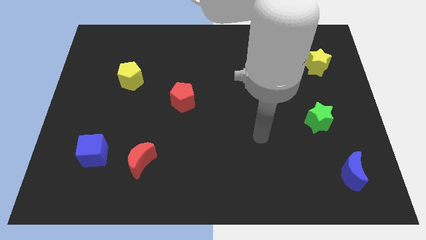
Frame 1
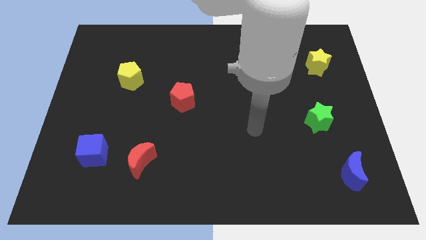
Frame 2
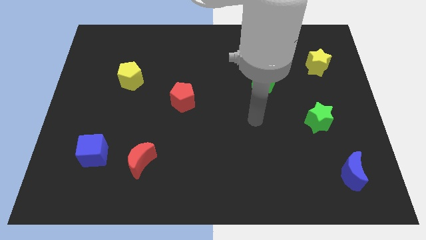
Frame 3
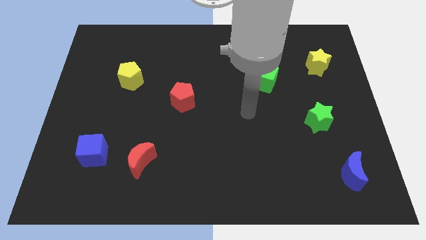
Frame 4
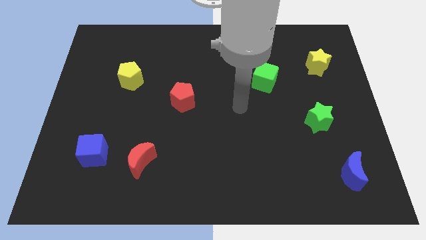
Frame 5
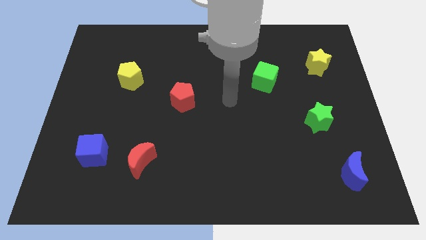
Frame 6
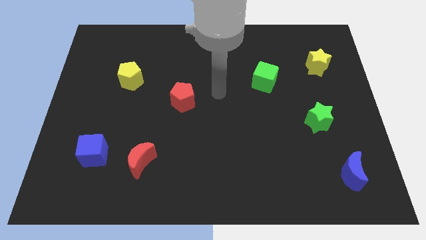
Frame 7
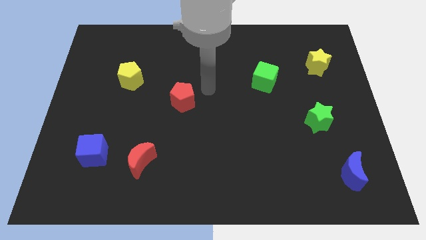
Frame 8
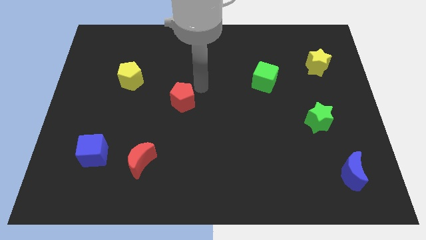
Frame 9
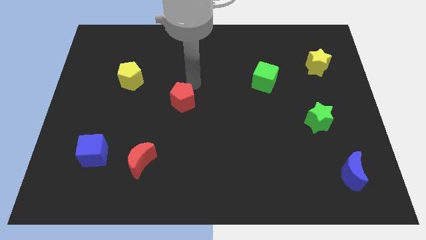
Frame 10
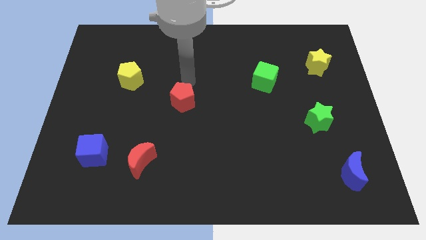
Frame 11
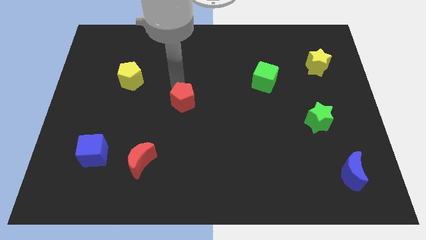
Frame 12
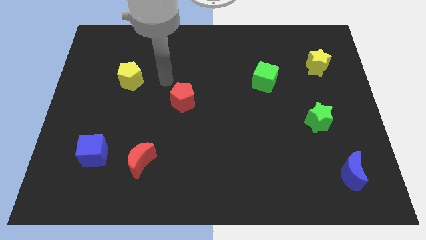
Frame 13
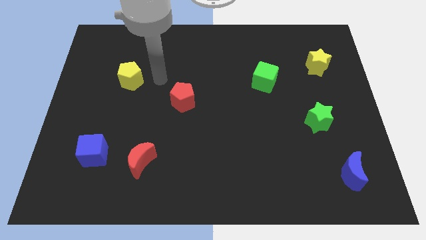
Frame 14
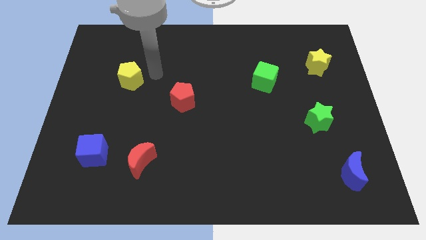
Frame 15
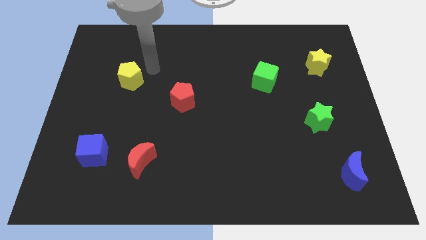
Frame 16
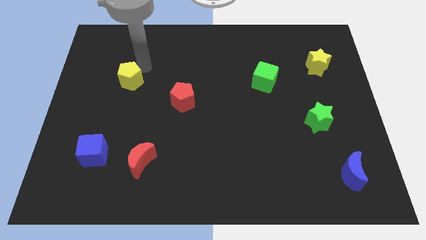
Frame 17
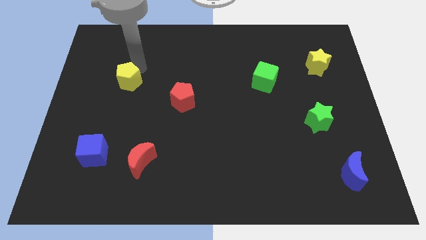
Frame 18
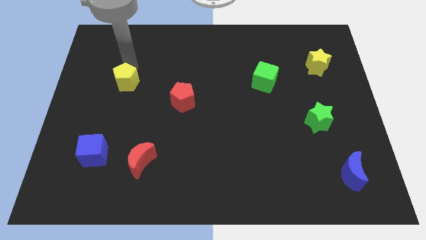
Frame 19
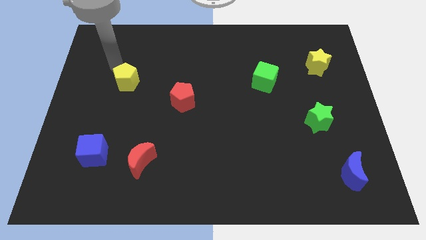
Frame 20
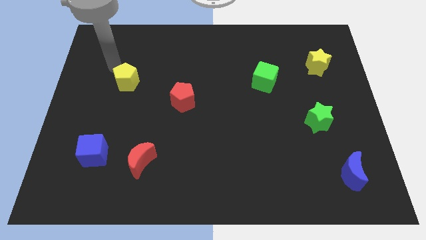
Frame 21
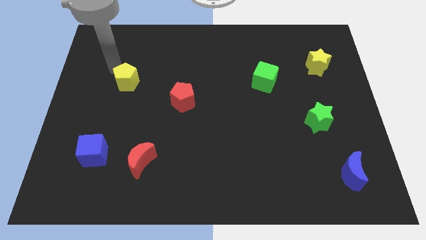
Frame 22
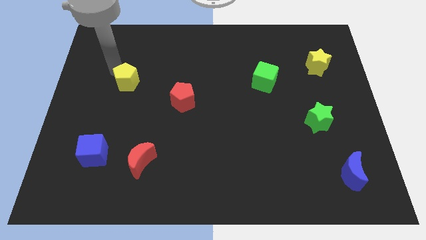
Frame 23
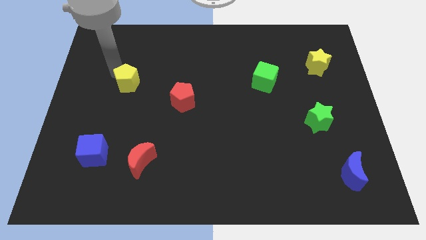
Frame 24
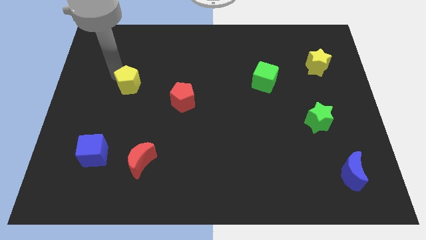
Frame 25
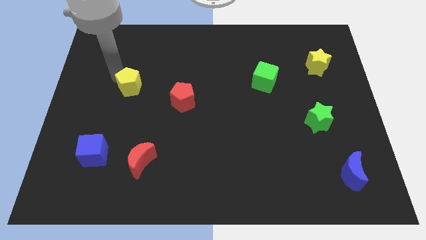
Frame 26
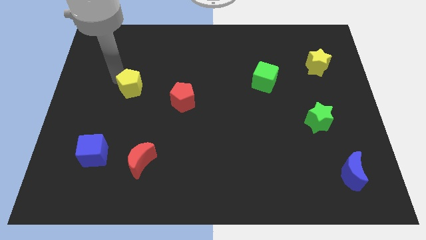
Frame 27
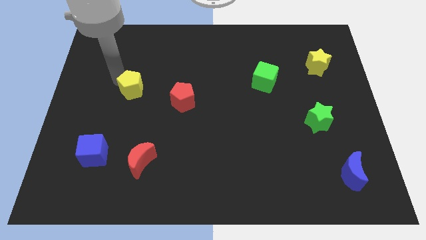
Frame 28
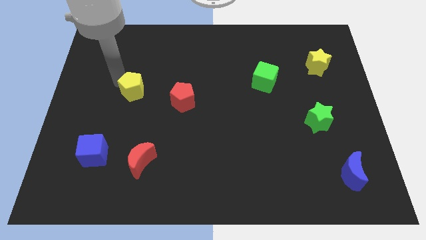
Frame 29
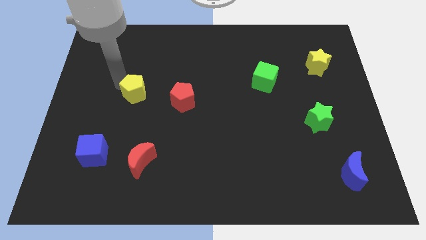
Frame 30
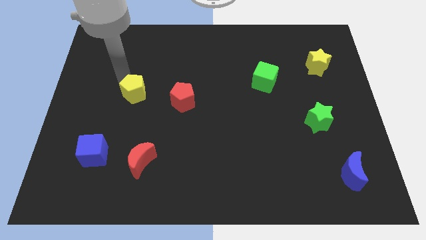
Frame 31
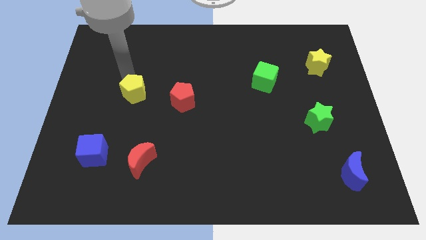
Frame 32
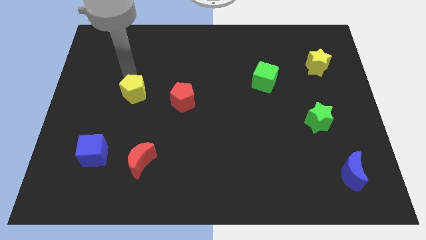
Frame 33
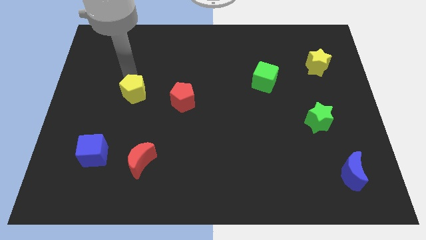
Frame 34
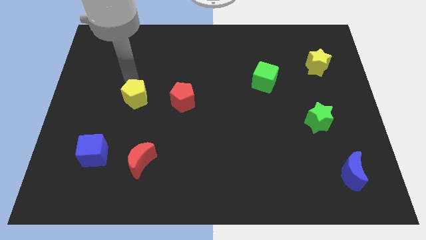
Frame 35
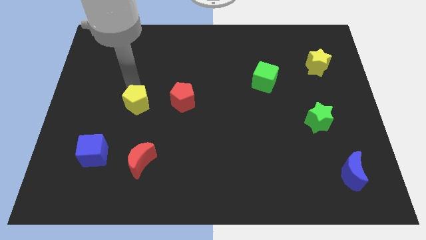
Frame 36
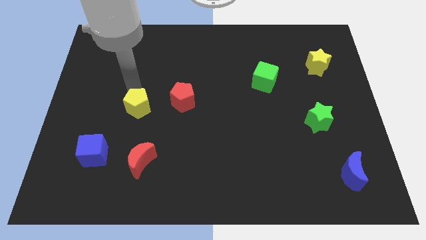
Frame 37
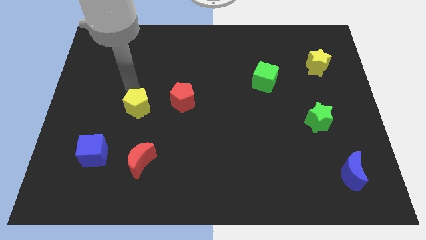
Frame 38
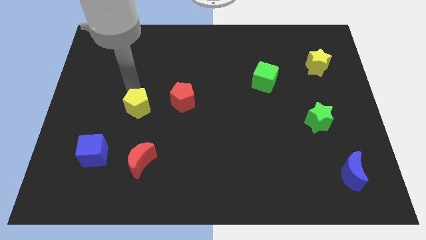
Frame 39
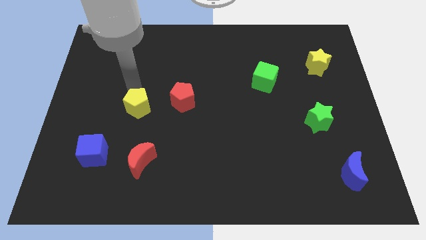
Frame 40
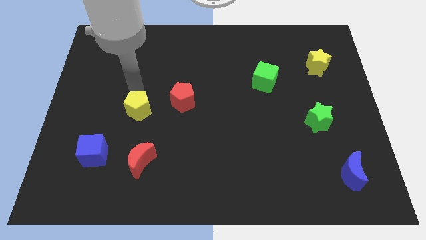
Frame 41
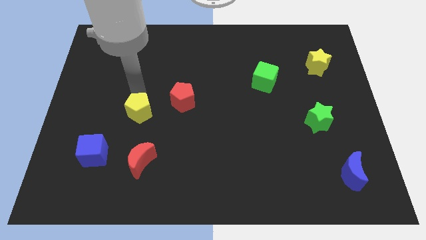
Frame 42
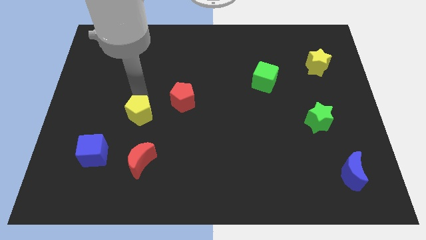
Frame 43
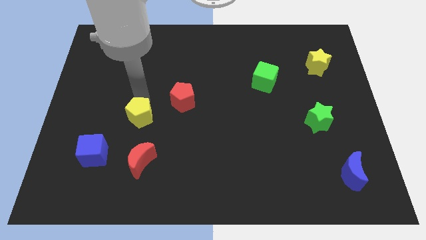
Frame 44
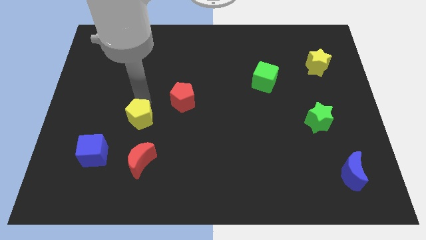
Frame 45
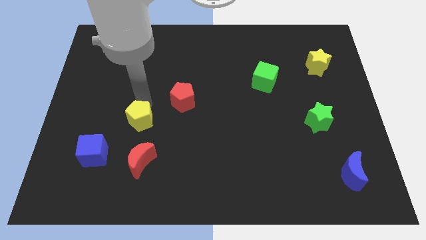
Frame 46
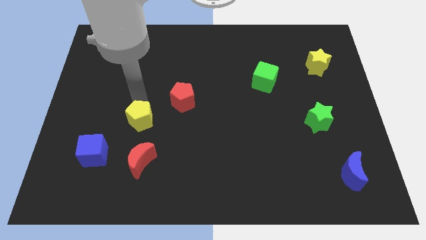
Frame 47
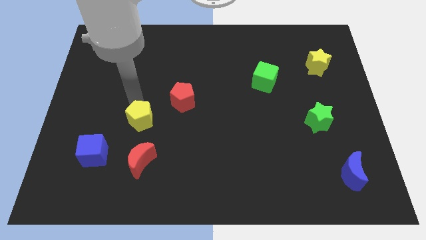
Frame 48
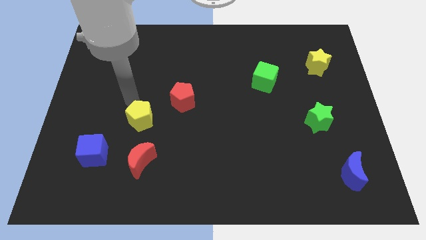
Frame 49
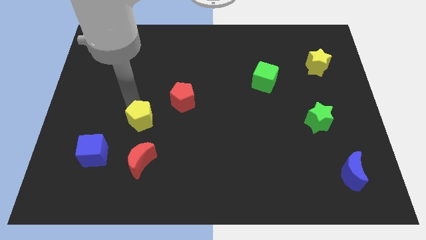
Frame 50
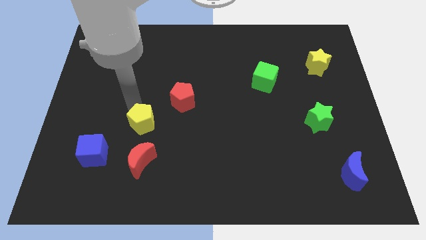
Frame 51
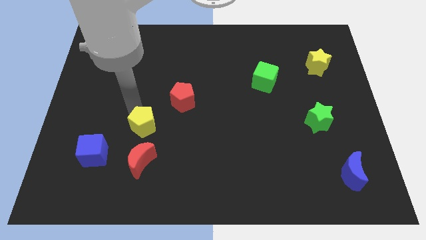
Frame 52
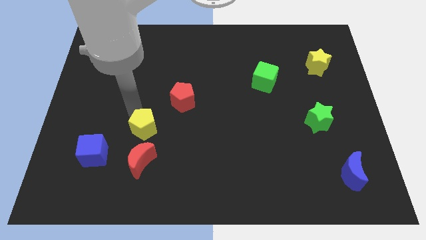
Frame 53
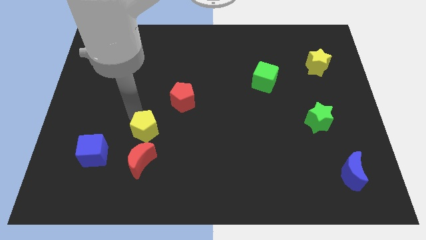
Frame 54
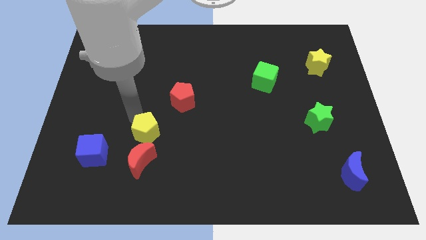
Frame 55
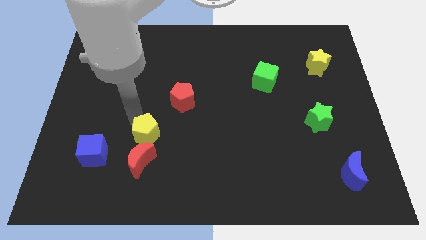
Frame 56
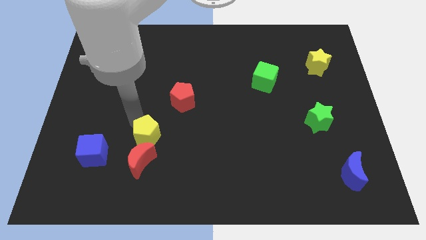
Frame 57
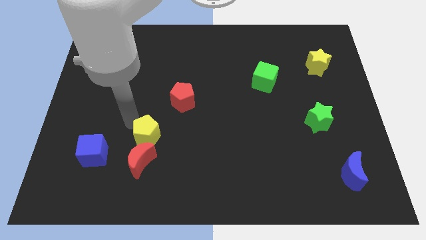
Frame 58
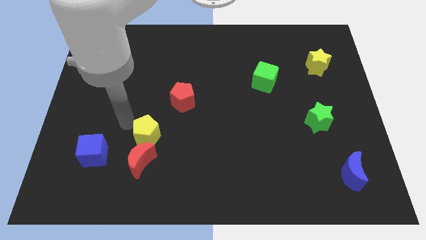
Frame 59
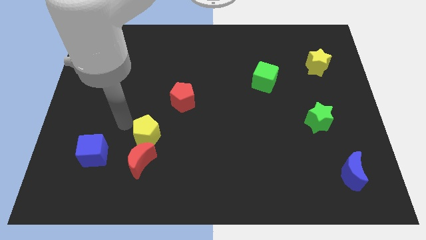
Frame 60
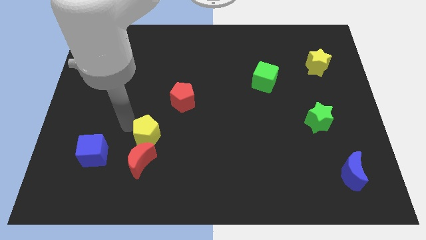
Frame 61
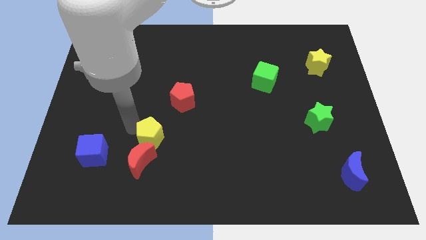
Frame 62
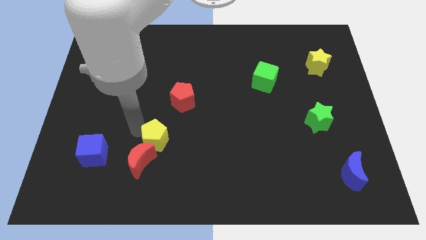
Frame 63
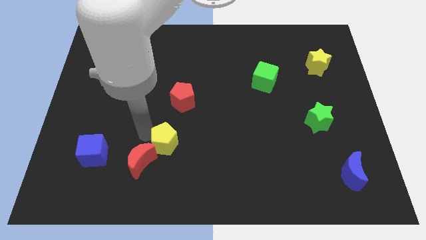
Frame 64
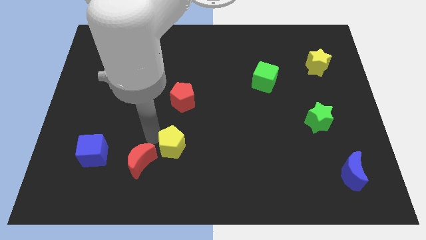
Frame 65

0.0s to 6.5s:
move the yellow pentagon downwards and right diagonally

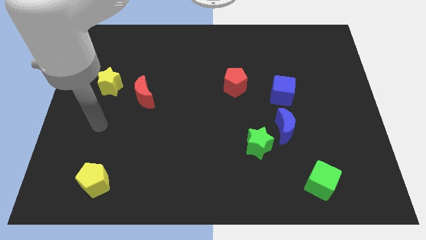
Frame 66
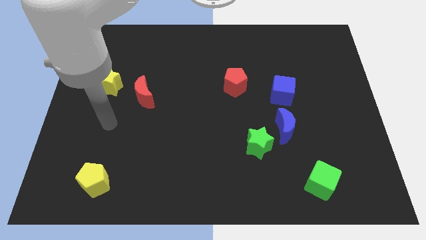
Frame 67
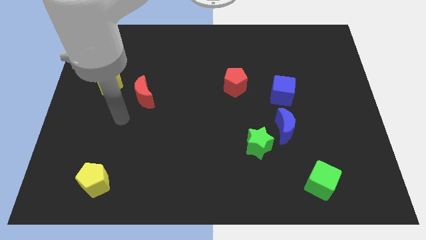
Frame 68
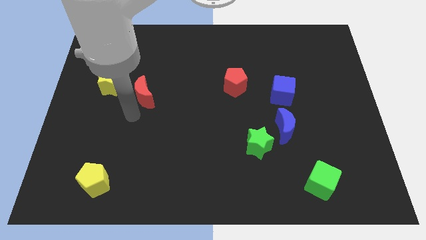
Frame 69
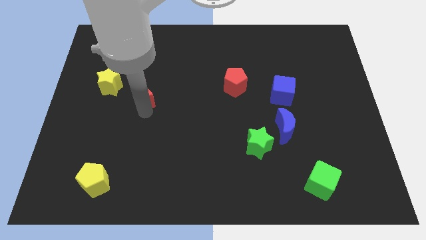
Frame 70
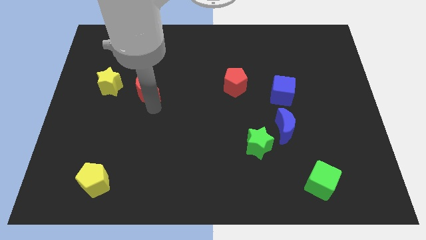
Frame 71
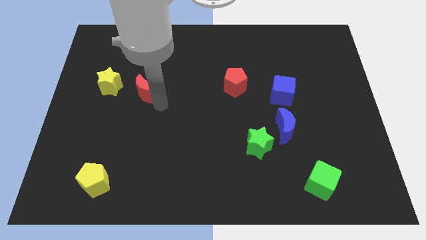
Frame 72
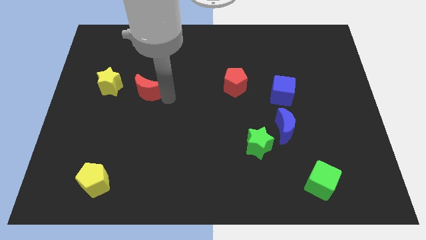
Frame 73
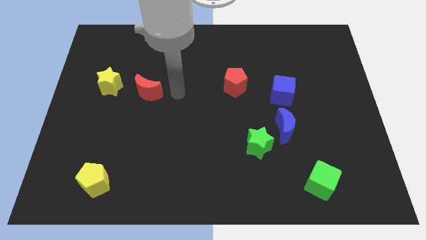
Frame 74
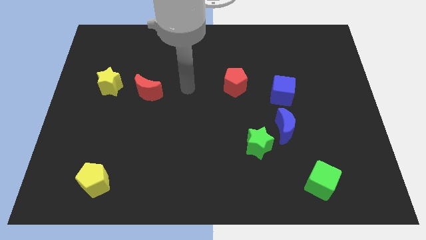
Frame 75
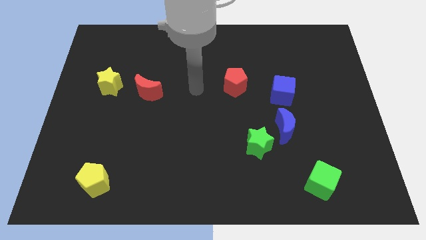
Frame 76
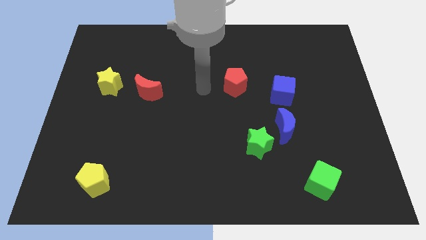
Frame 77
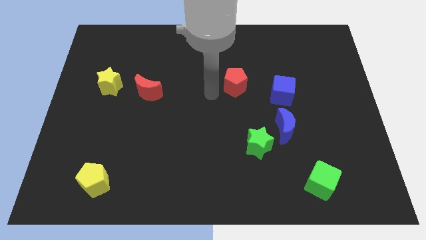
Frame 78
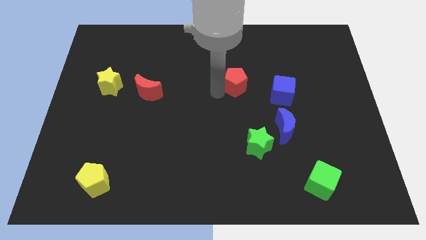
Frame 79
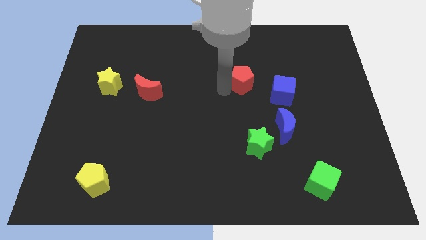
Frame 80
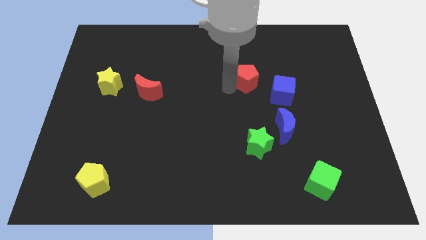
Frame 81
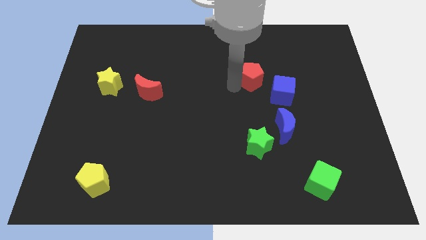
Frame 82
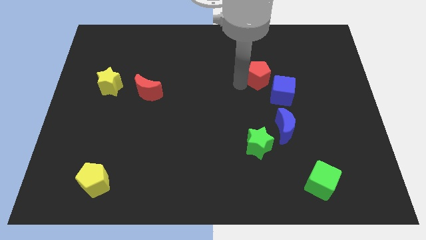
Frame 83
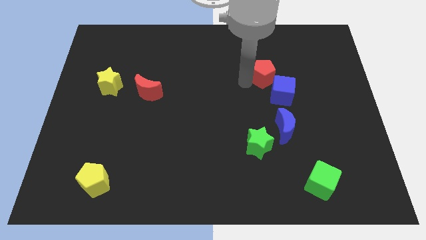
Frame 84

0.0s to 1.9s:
move the red pentagon to the right somewhat
